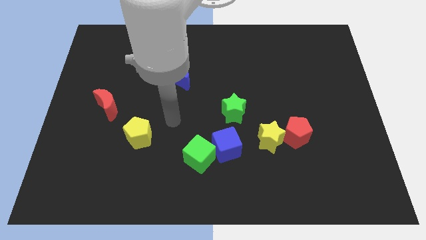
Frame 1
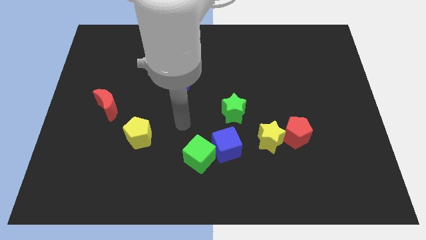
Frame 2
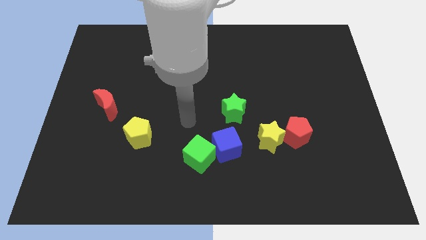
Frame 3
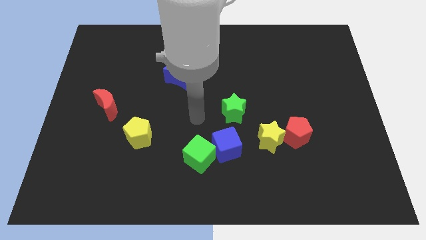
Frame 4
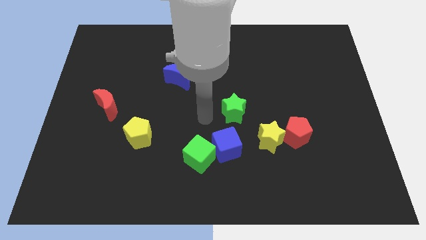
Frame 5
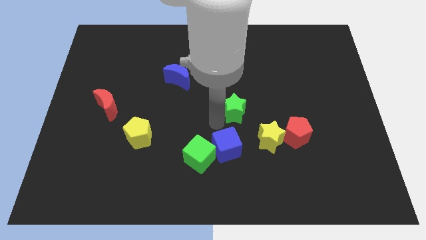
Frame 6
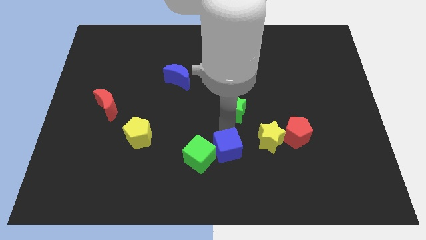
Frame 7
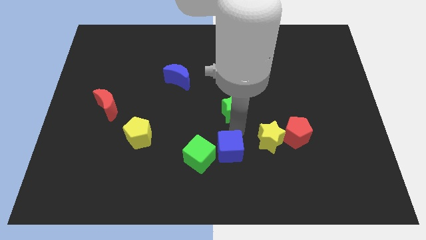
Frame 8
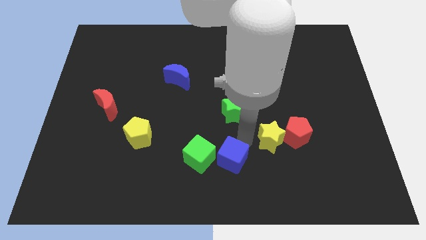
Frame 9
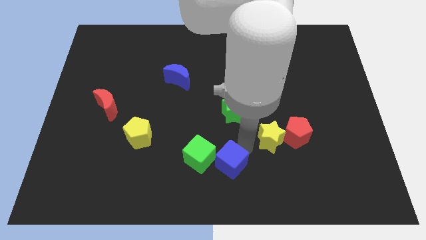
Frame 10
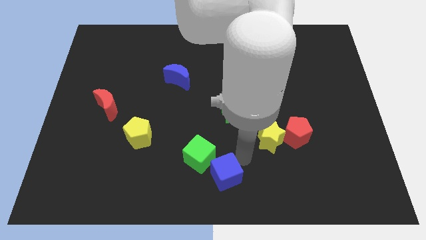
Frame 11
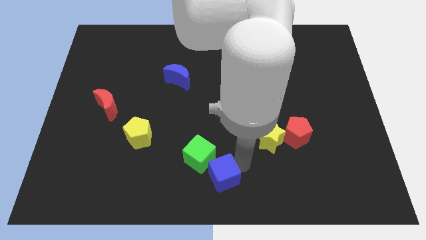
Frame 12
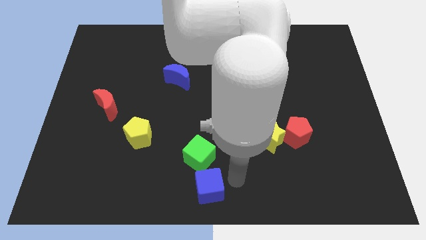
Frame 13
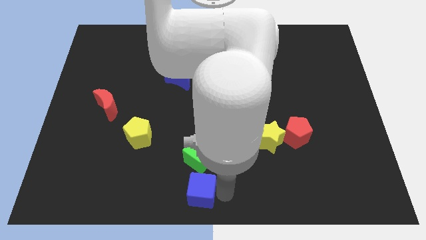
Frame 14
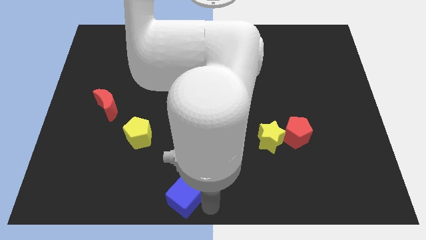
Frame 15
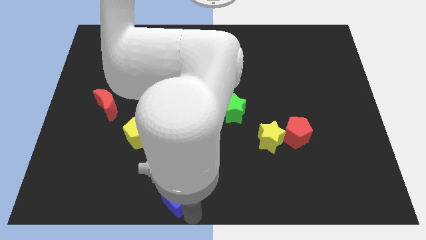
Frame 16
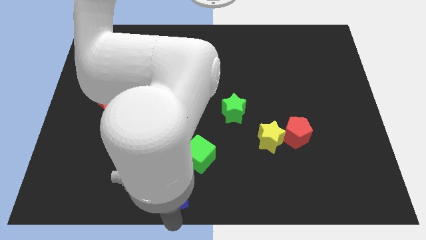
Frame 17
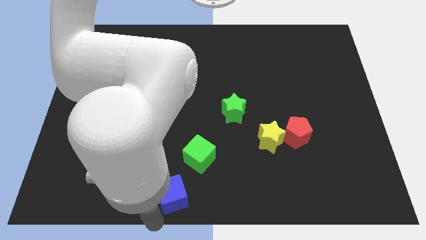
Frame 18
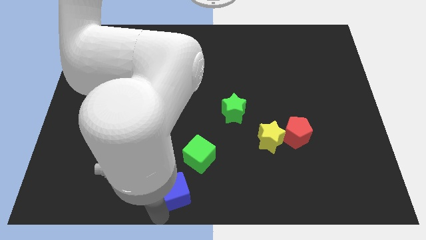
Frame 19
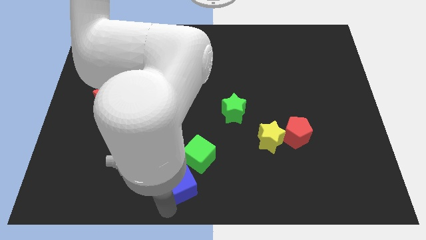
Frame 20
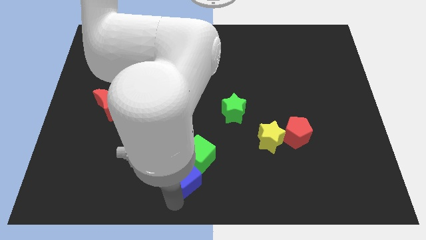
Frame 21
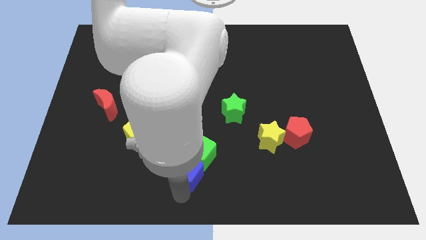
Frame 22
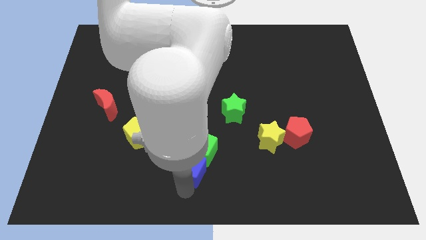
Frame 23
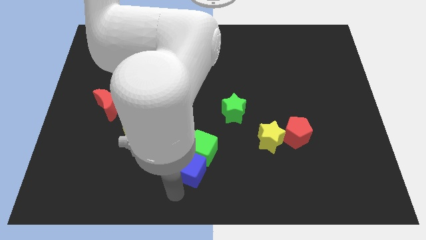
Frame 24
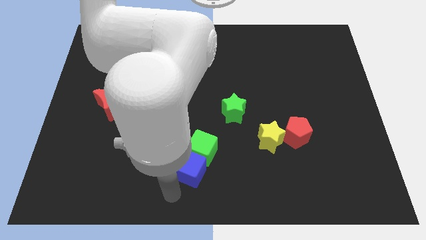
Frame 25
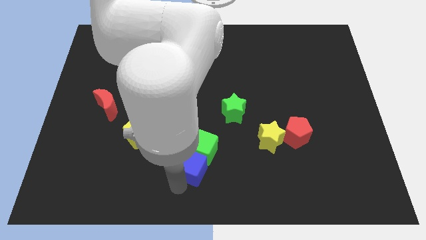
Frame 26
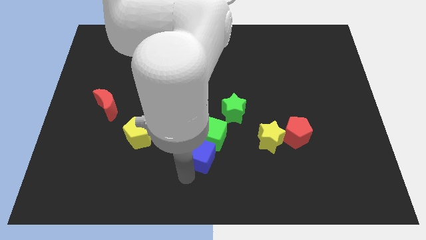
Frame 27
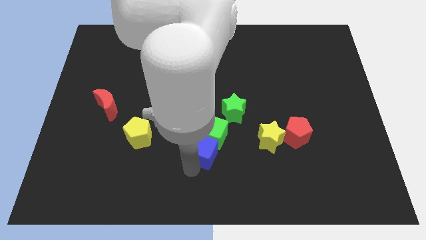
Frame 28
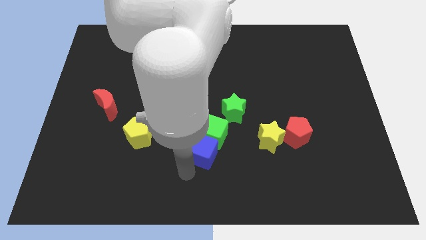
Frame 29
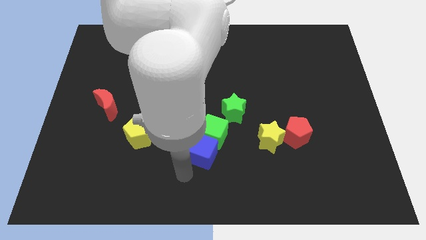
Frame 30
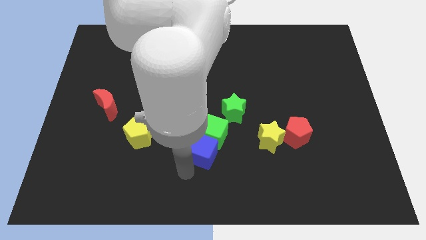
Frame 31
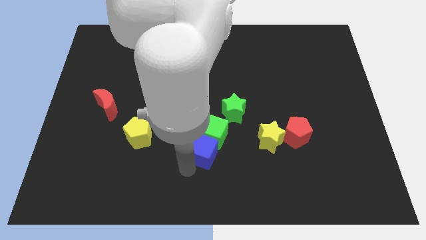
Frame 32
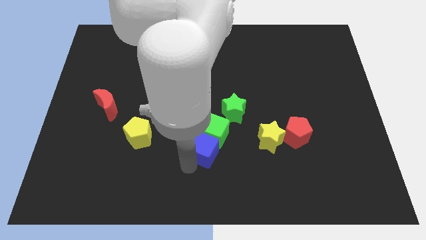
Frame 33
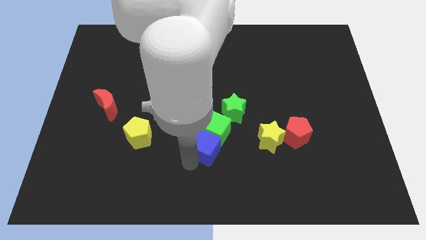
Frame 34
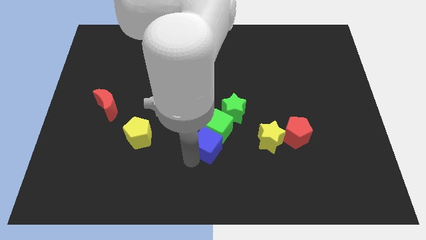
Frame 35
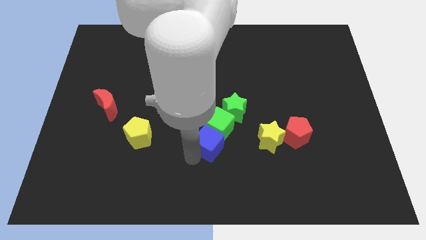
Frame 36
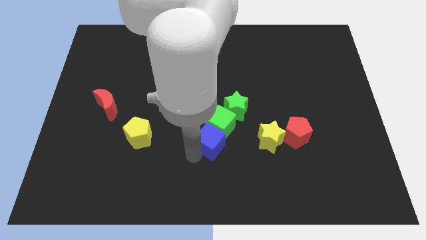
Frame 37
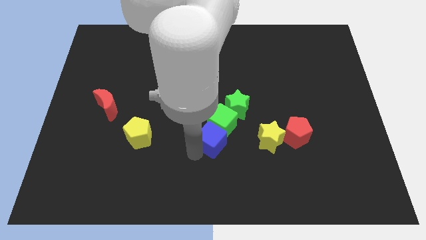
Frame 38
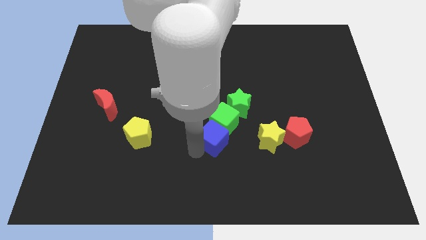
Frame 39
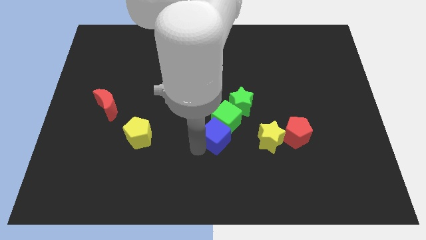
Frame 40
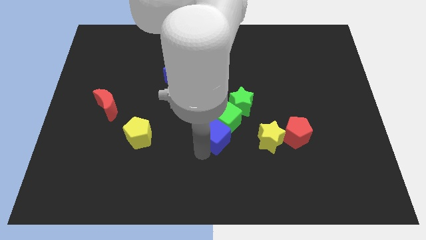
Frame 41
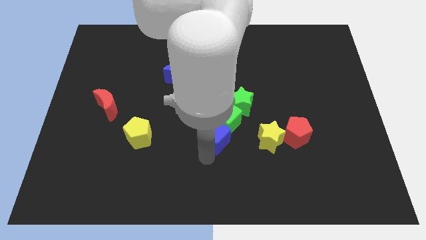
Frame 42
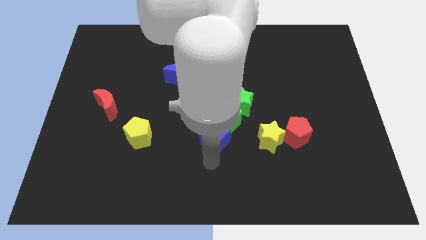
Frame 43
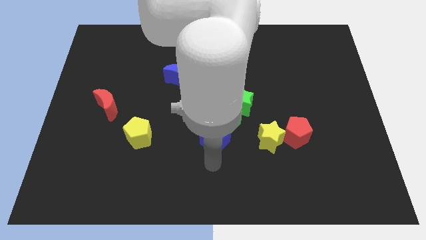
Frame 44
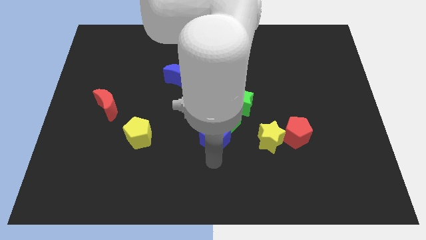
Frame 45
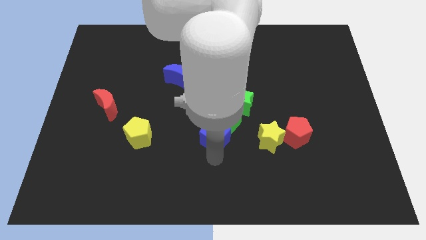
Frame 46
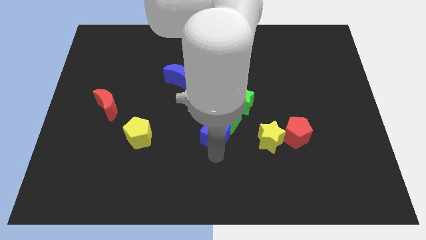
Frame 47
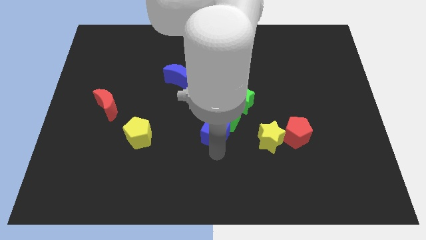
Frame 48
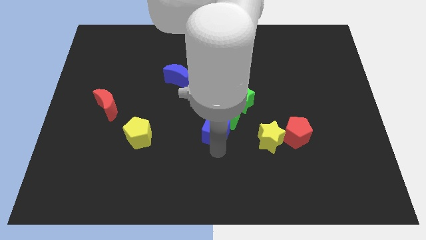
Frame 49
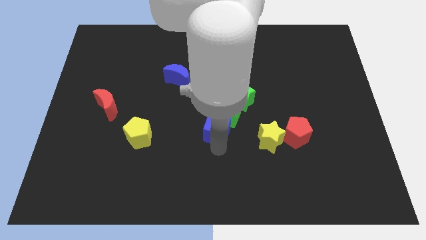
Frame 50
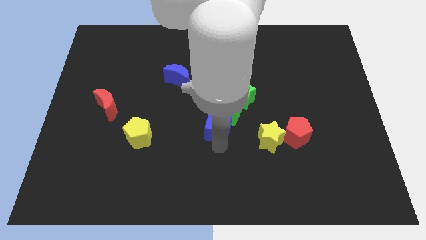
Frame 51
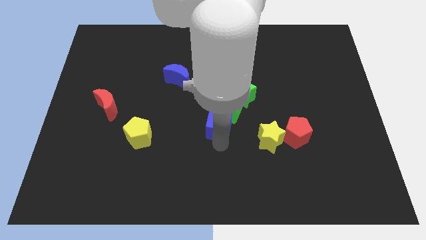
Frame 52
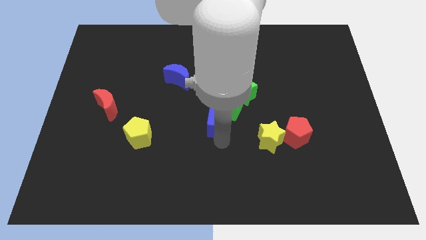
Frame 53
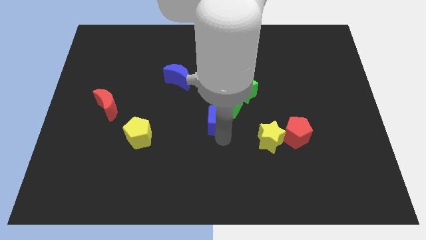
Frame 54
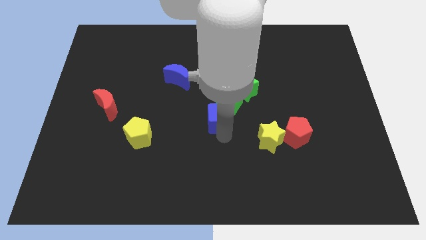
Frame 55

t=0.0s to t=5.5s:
push the blue cube up a bit

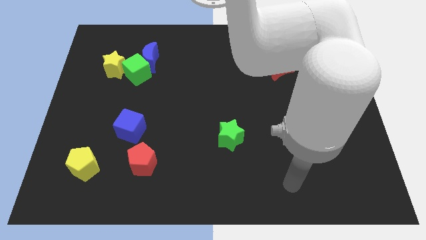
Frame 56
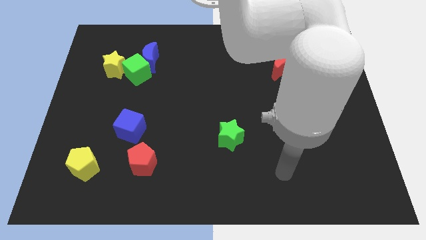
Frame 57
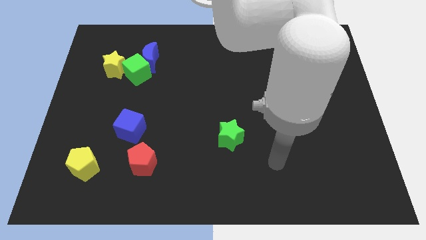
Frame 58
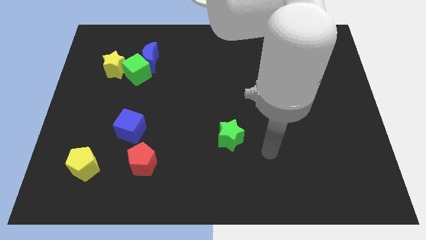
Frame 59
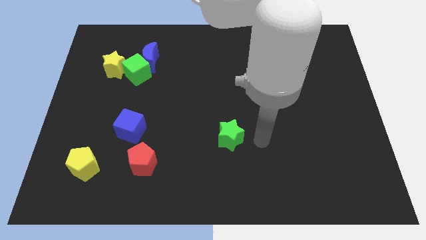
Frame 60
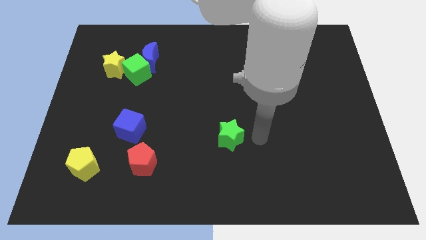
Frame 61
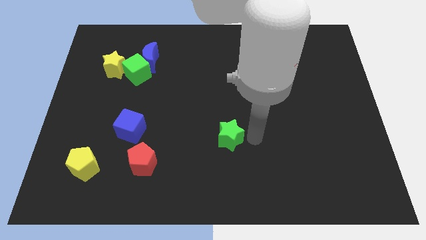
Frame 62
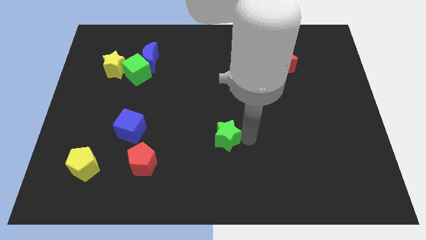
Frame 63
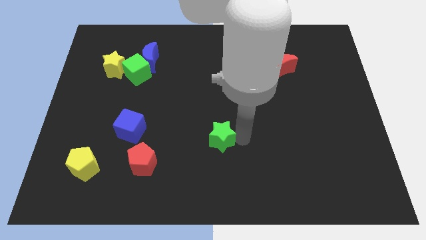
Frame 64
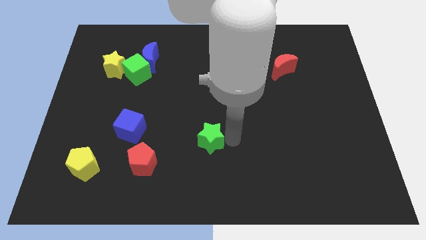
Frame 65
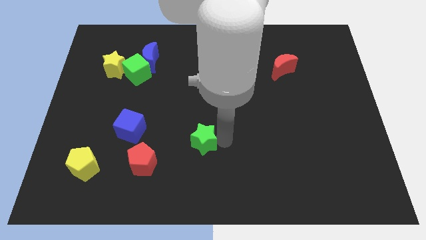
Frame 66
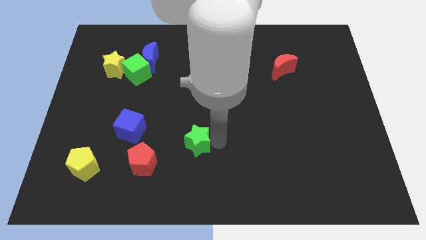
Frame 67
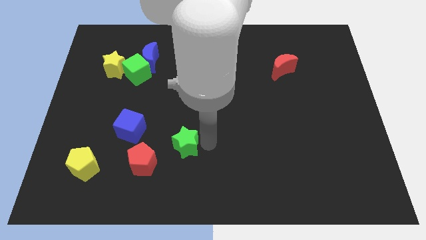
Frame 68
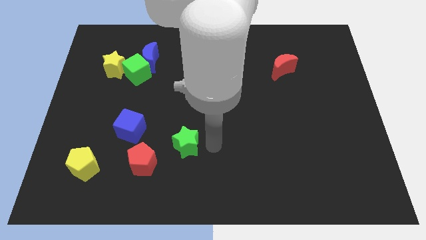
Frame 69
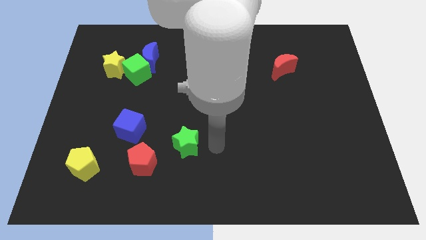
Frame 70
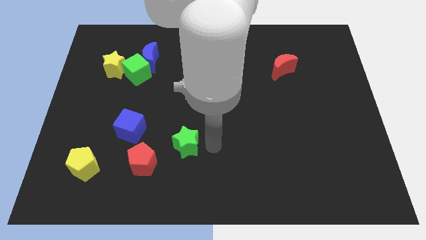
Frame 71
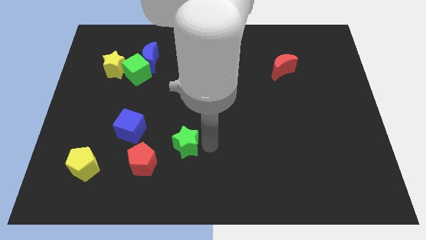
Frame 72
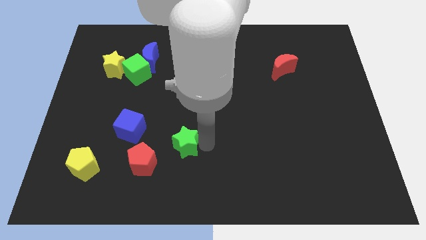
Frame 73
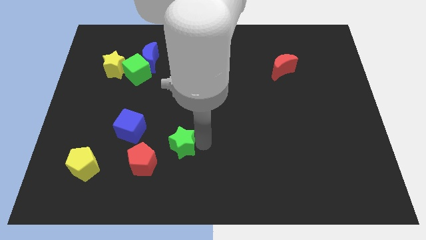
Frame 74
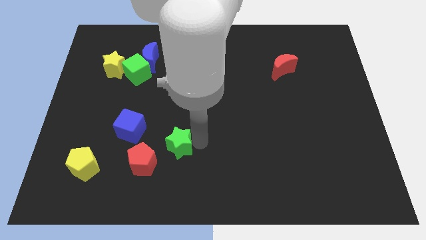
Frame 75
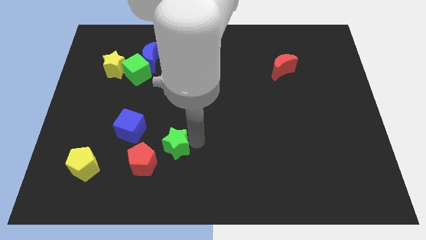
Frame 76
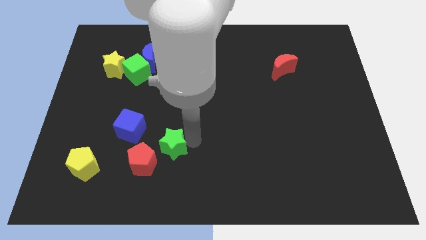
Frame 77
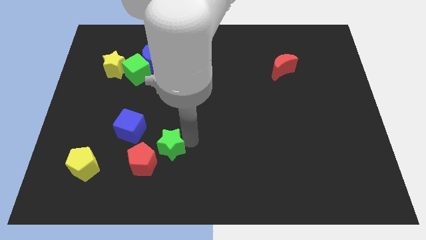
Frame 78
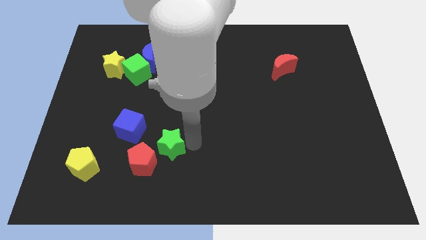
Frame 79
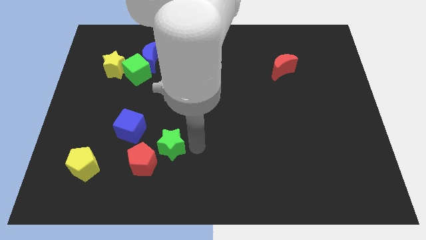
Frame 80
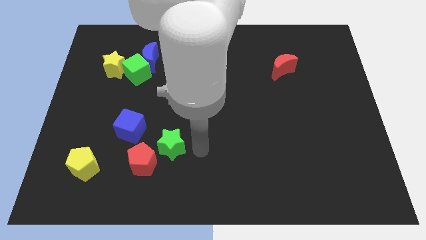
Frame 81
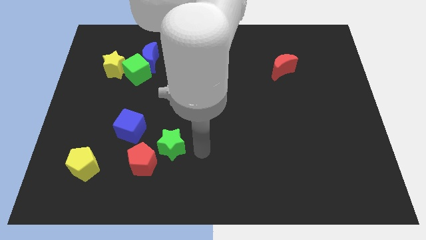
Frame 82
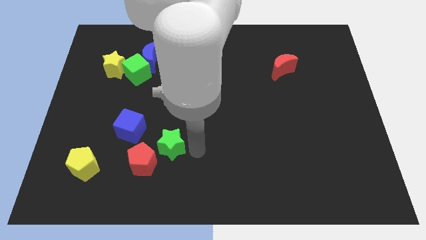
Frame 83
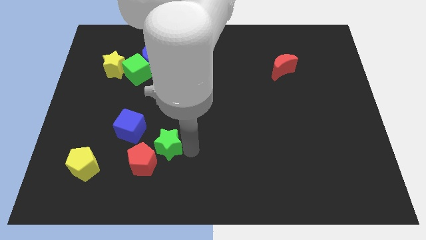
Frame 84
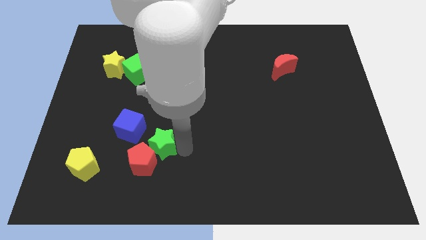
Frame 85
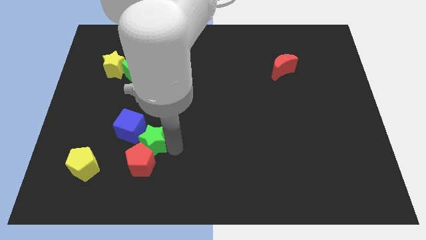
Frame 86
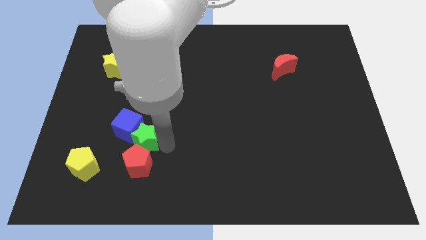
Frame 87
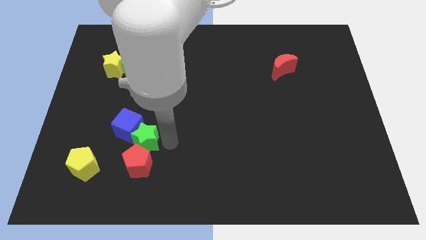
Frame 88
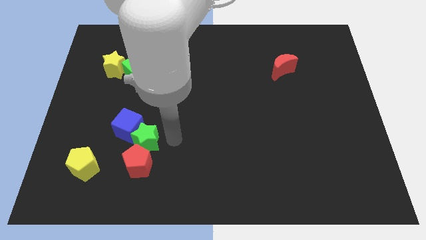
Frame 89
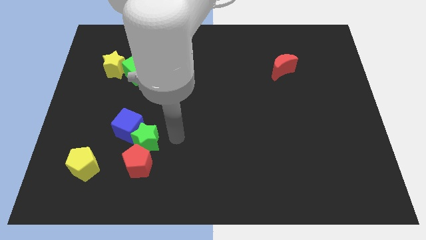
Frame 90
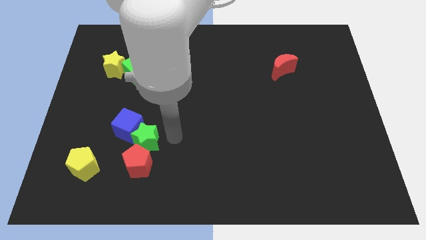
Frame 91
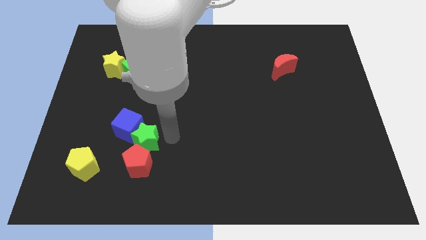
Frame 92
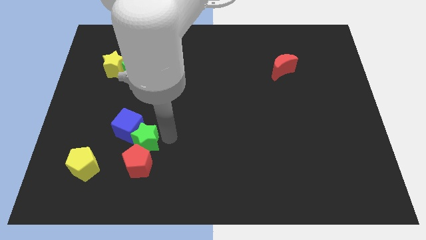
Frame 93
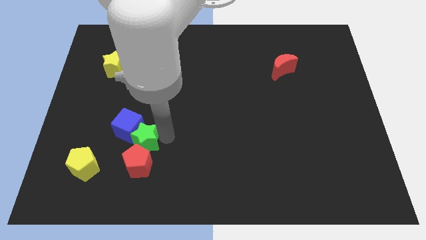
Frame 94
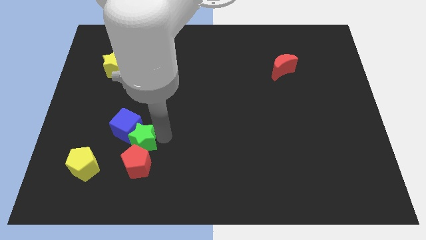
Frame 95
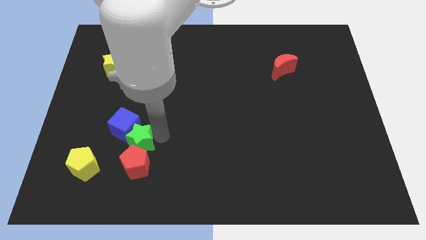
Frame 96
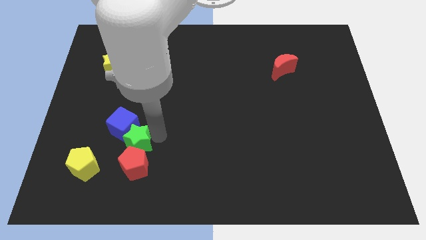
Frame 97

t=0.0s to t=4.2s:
slide the green star left
